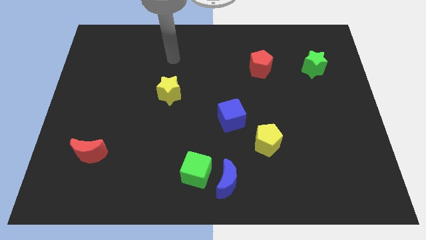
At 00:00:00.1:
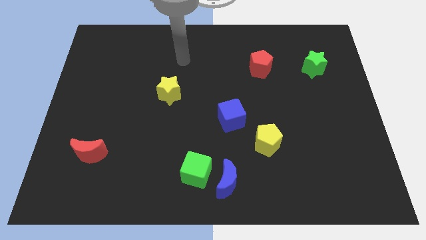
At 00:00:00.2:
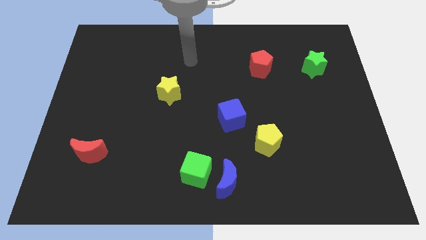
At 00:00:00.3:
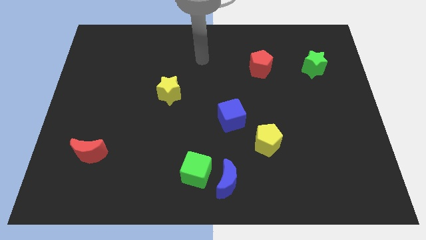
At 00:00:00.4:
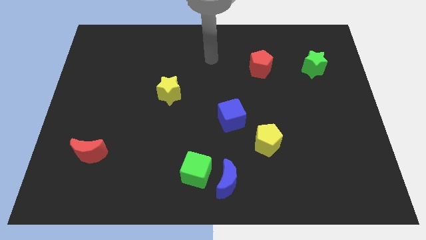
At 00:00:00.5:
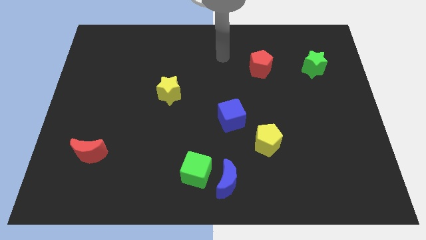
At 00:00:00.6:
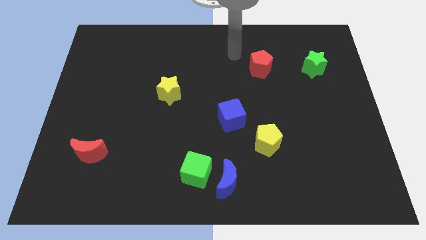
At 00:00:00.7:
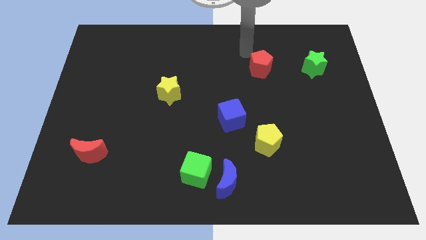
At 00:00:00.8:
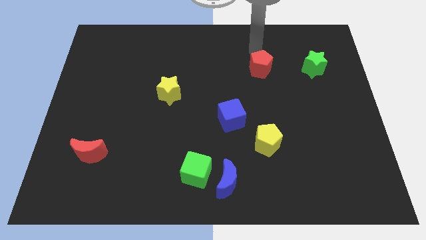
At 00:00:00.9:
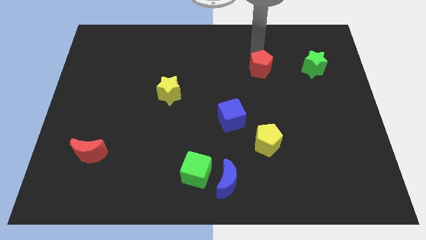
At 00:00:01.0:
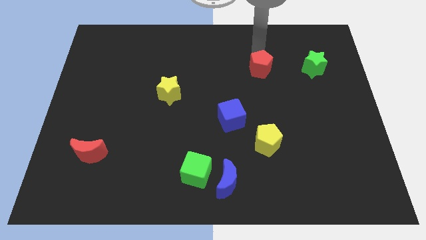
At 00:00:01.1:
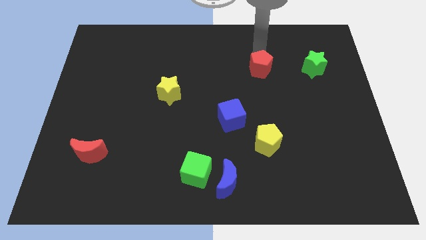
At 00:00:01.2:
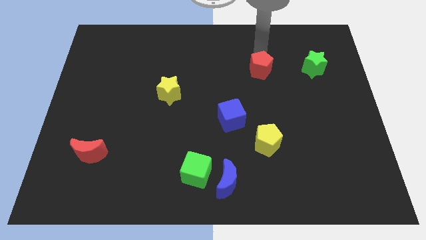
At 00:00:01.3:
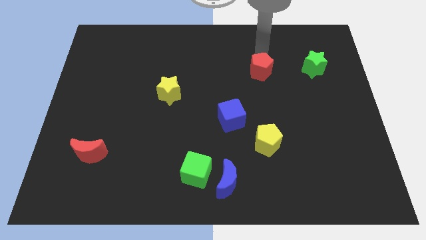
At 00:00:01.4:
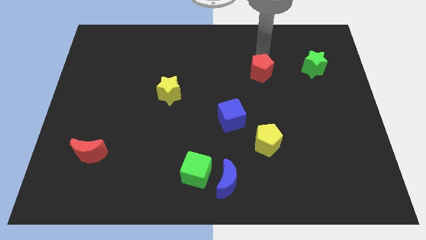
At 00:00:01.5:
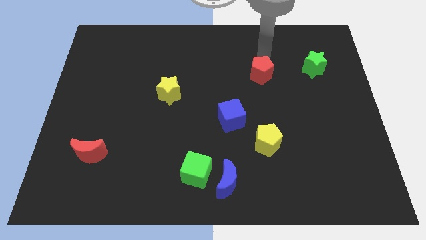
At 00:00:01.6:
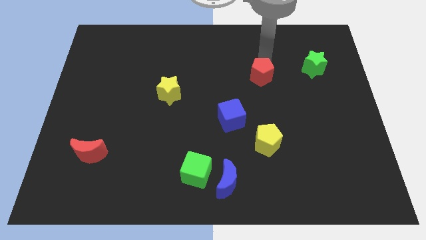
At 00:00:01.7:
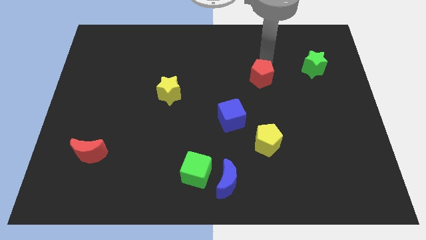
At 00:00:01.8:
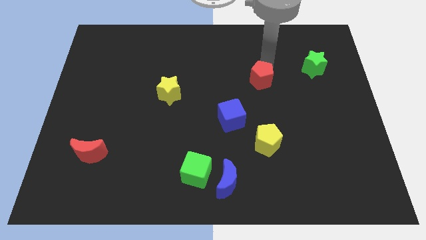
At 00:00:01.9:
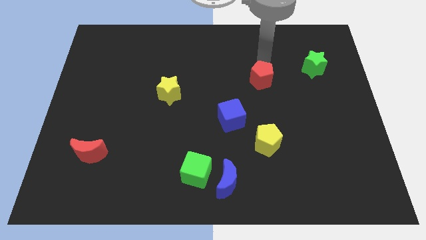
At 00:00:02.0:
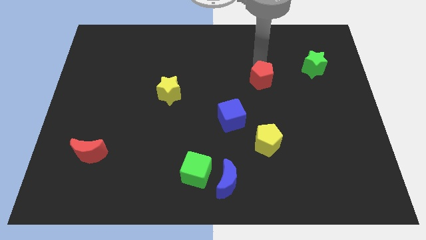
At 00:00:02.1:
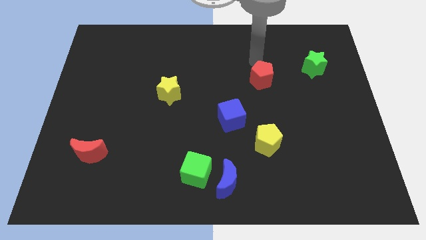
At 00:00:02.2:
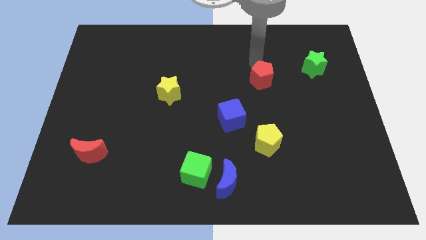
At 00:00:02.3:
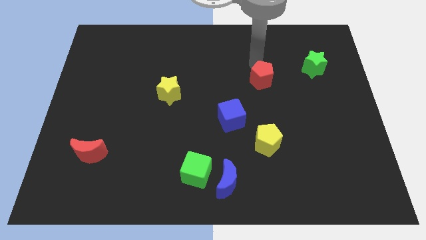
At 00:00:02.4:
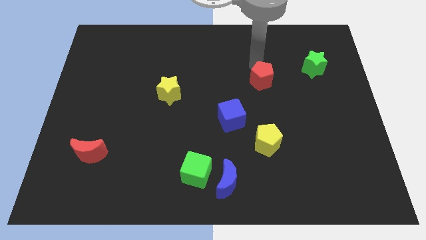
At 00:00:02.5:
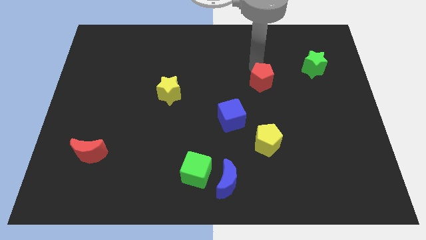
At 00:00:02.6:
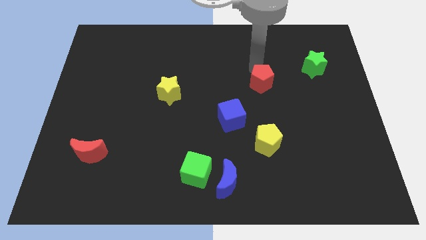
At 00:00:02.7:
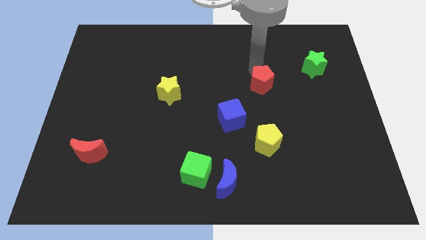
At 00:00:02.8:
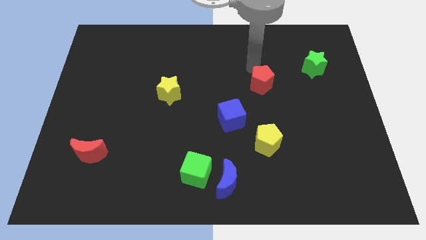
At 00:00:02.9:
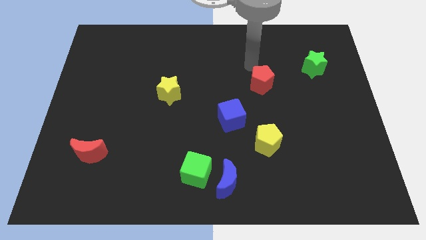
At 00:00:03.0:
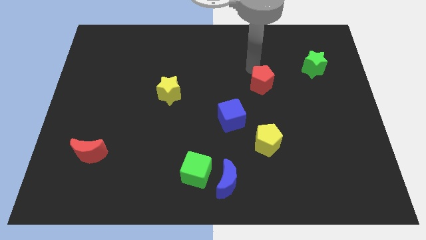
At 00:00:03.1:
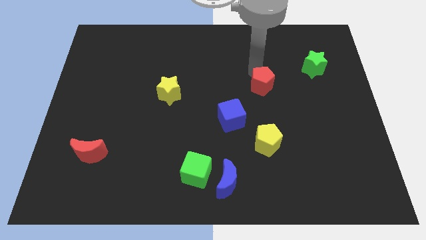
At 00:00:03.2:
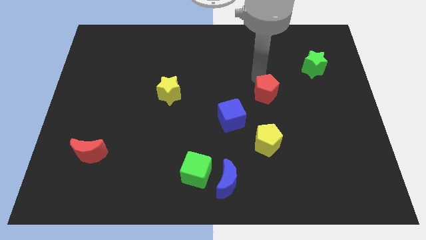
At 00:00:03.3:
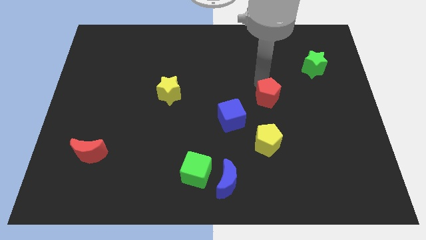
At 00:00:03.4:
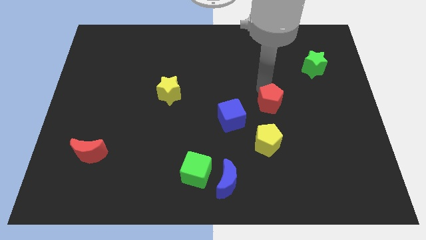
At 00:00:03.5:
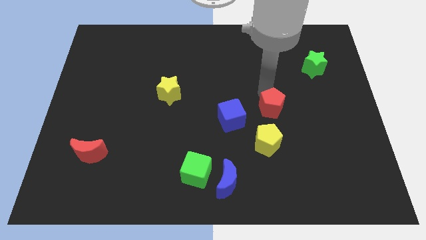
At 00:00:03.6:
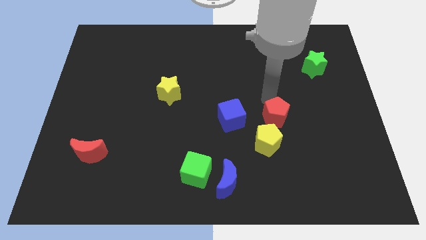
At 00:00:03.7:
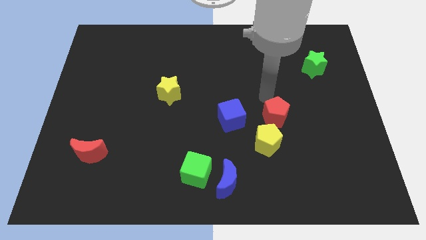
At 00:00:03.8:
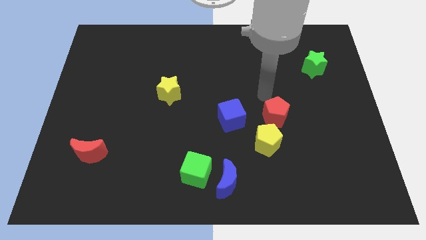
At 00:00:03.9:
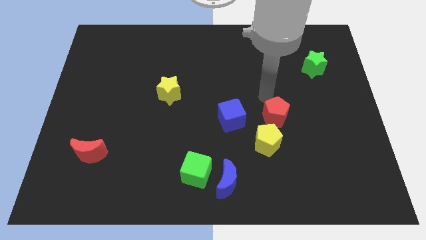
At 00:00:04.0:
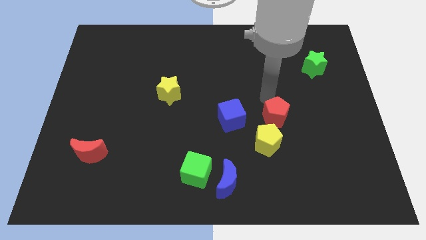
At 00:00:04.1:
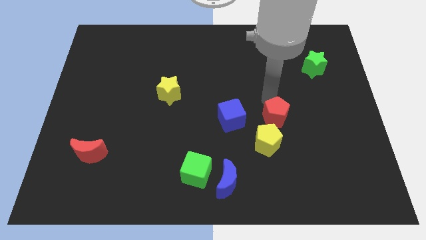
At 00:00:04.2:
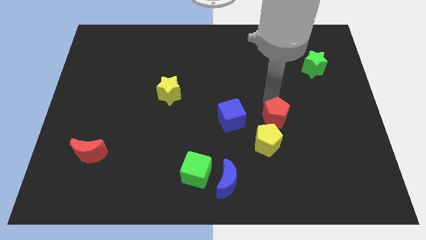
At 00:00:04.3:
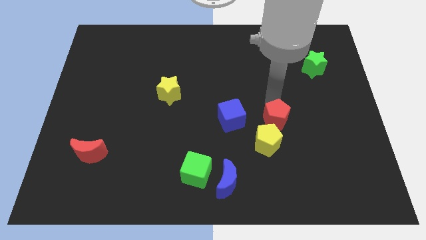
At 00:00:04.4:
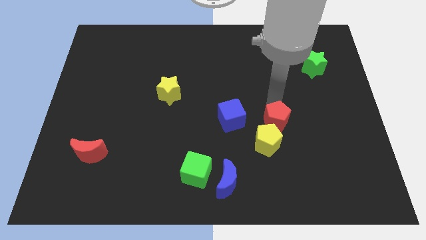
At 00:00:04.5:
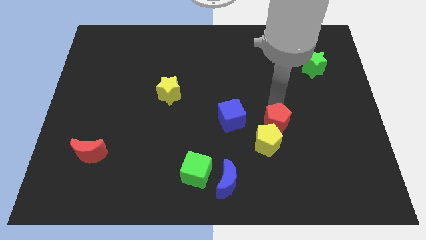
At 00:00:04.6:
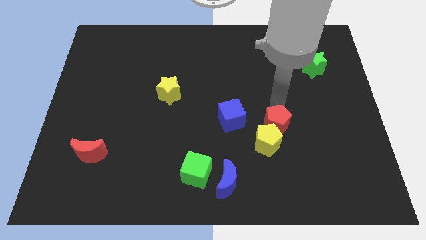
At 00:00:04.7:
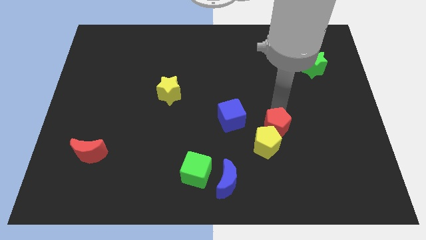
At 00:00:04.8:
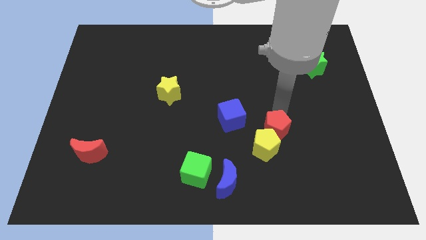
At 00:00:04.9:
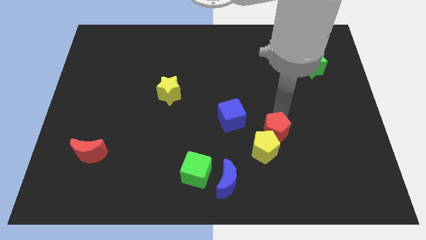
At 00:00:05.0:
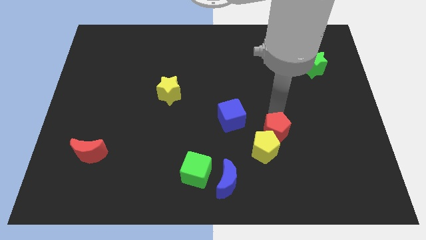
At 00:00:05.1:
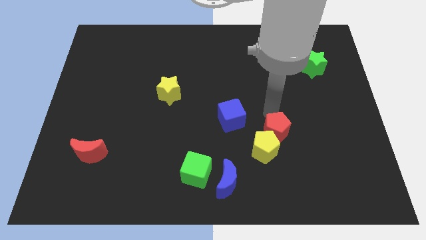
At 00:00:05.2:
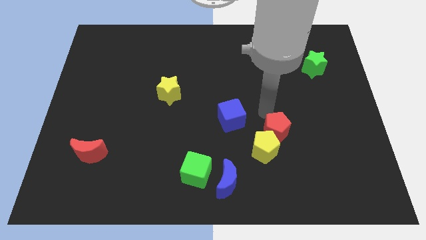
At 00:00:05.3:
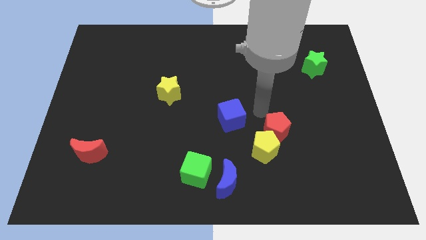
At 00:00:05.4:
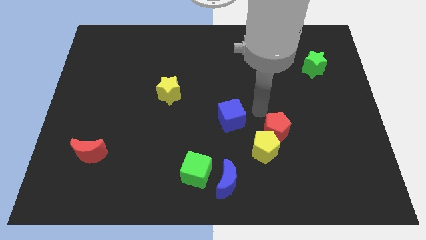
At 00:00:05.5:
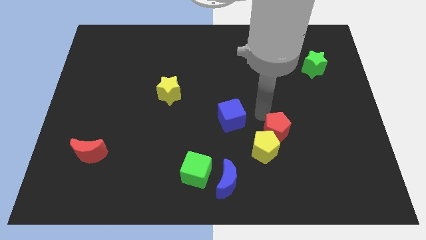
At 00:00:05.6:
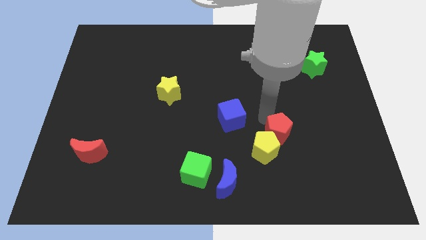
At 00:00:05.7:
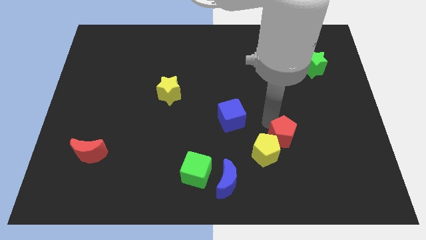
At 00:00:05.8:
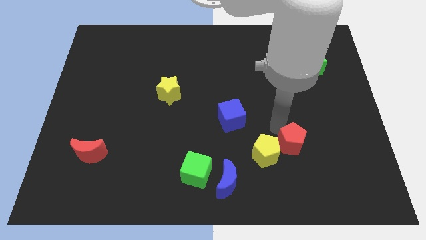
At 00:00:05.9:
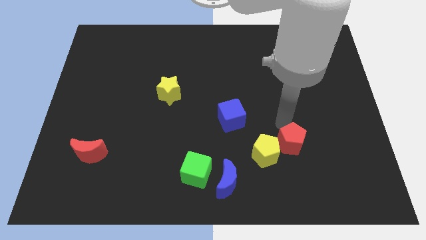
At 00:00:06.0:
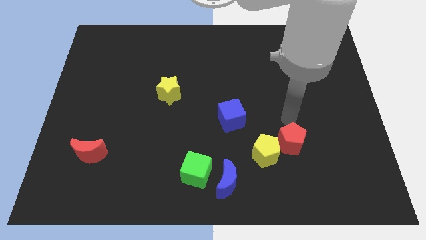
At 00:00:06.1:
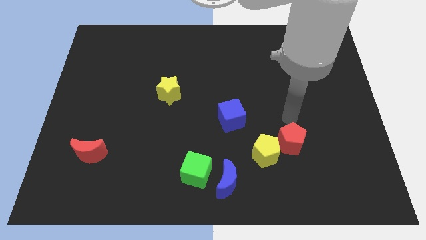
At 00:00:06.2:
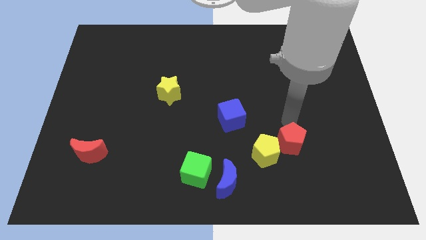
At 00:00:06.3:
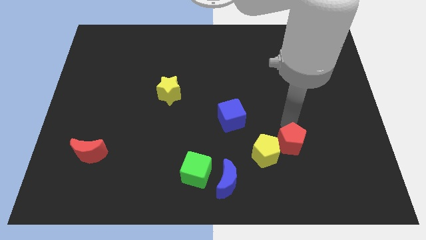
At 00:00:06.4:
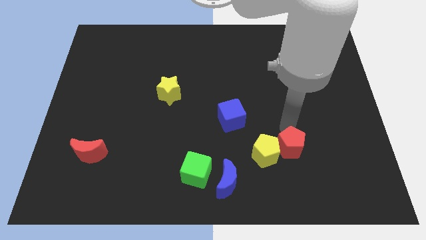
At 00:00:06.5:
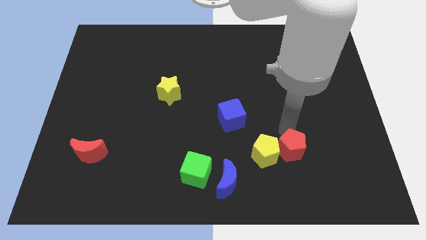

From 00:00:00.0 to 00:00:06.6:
push the red pentagon diagonally down and to the right of the yellow pentagon

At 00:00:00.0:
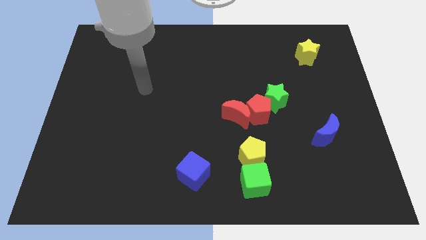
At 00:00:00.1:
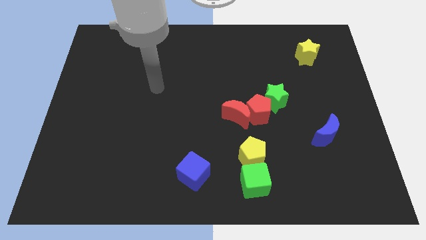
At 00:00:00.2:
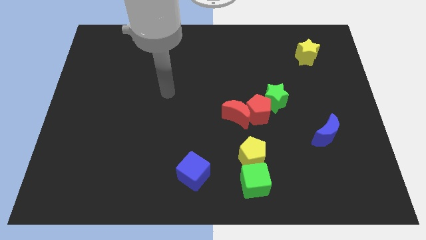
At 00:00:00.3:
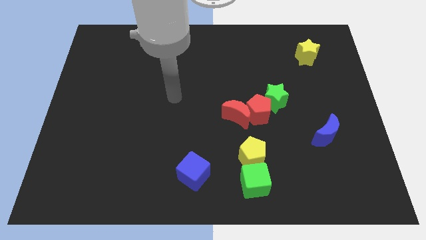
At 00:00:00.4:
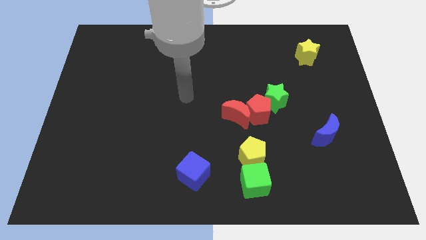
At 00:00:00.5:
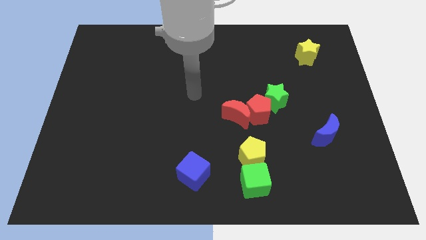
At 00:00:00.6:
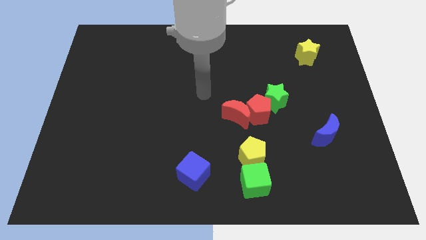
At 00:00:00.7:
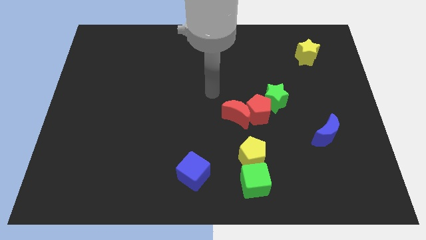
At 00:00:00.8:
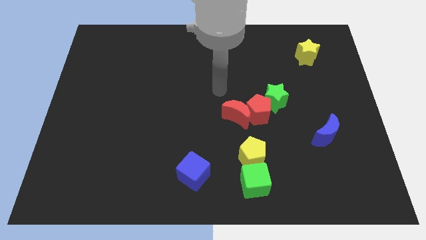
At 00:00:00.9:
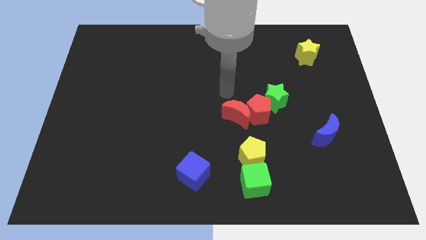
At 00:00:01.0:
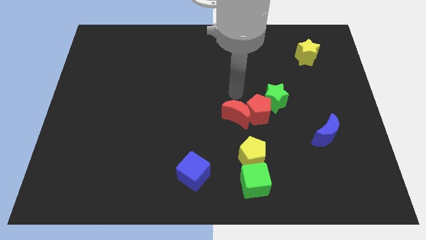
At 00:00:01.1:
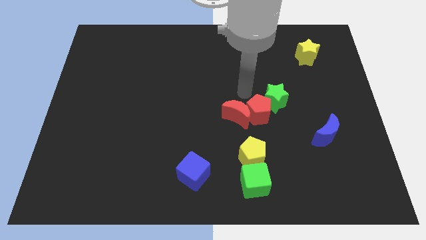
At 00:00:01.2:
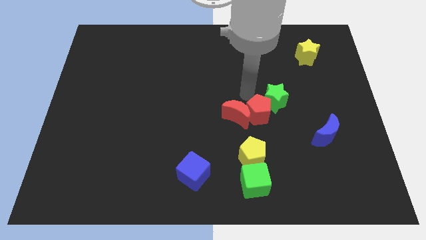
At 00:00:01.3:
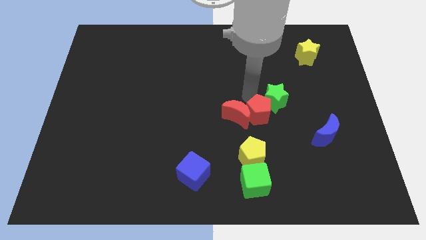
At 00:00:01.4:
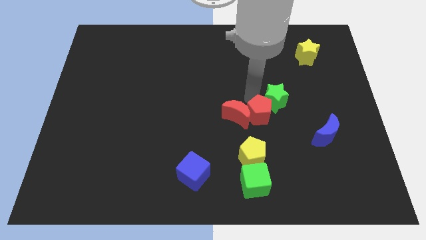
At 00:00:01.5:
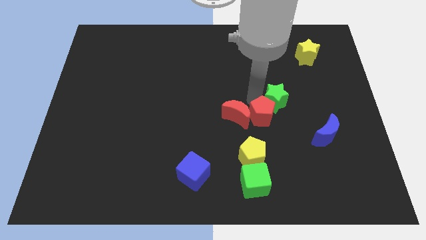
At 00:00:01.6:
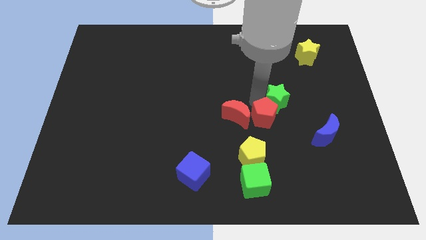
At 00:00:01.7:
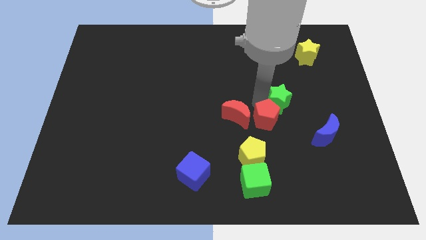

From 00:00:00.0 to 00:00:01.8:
move the red pentagon to the top right side of the yellow pentagon
